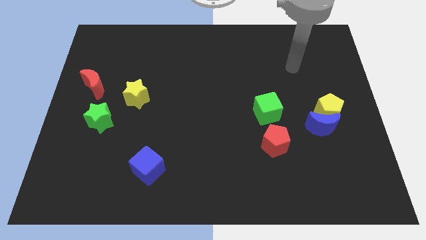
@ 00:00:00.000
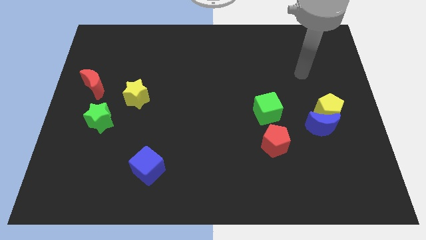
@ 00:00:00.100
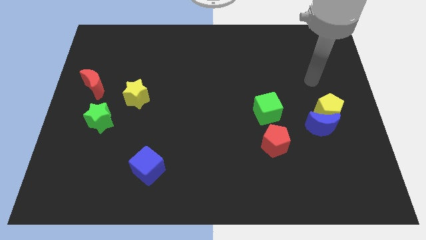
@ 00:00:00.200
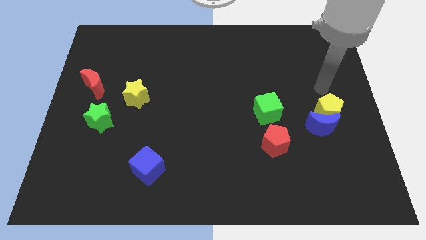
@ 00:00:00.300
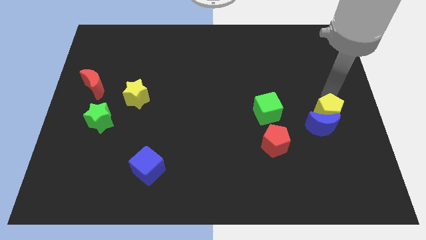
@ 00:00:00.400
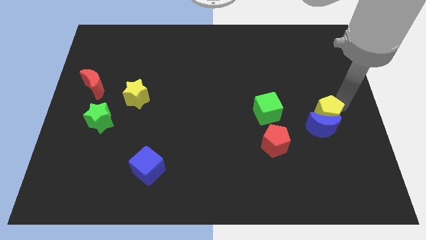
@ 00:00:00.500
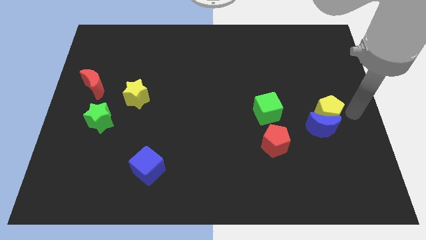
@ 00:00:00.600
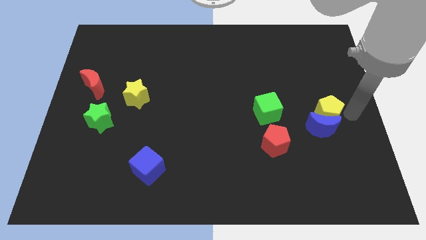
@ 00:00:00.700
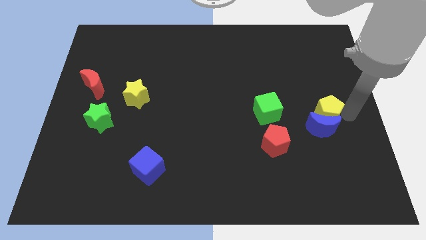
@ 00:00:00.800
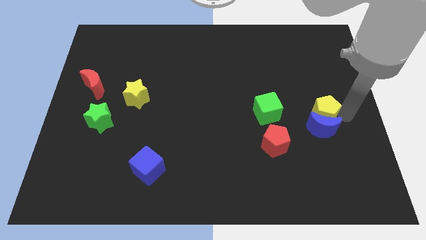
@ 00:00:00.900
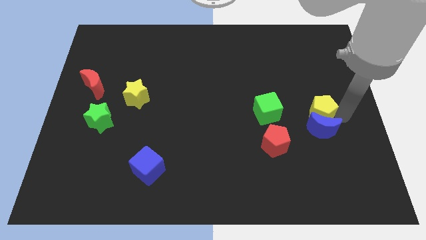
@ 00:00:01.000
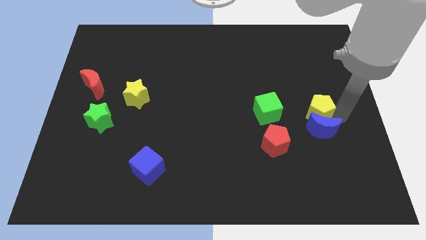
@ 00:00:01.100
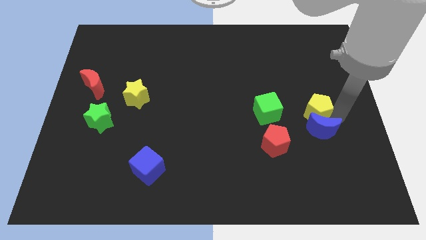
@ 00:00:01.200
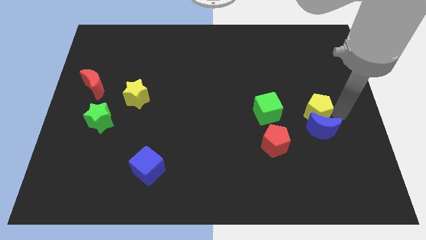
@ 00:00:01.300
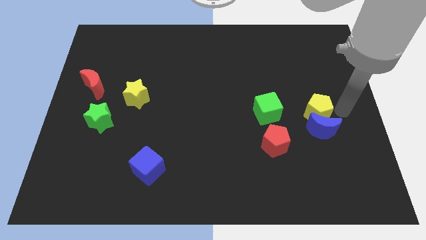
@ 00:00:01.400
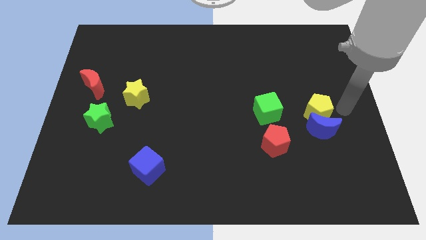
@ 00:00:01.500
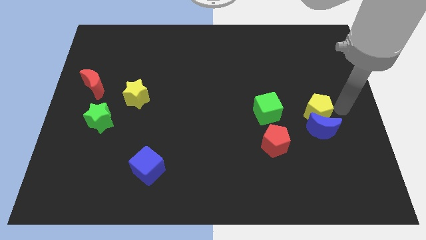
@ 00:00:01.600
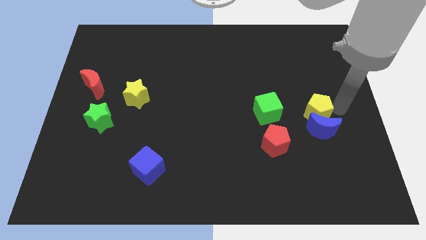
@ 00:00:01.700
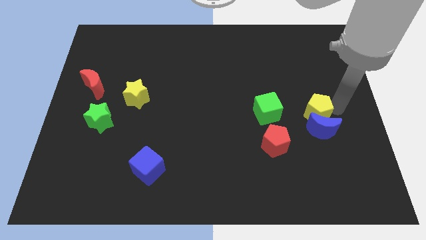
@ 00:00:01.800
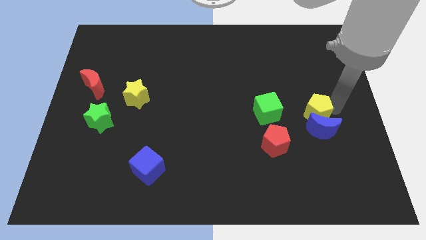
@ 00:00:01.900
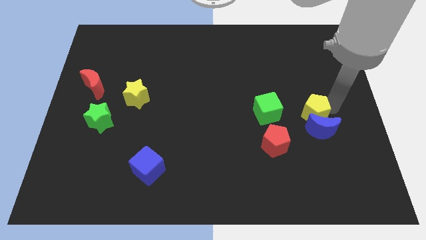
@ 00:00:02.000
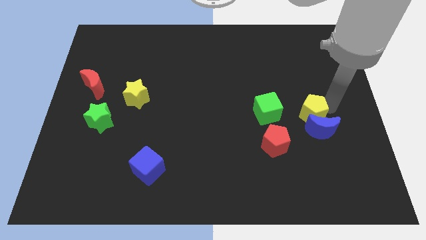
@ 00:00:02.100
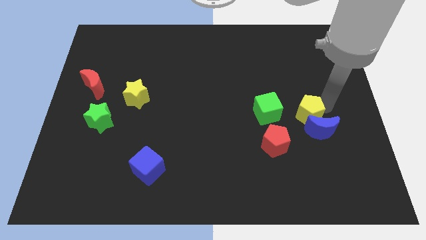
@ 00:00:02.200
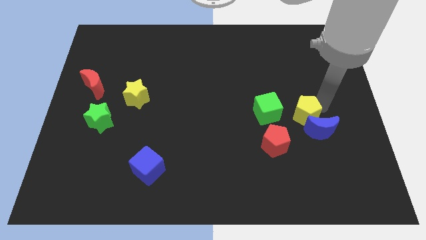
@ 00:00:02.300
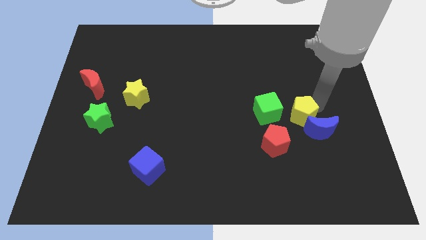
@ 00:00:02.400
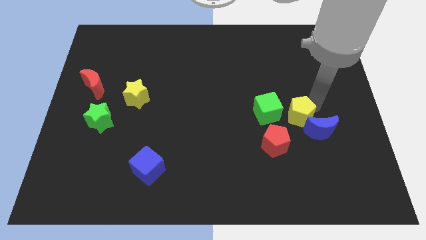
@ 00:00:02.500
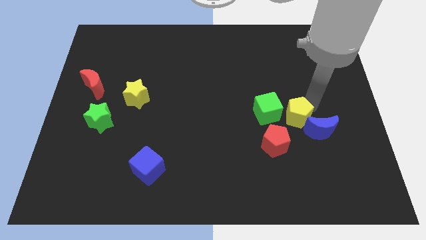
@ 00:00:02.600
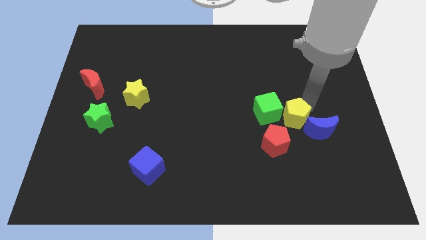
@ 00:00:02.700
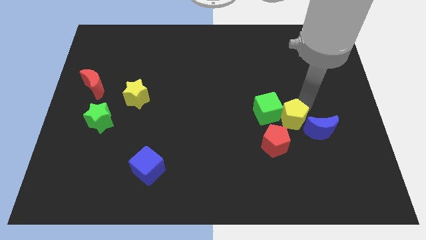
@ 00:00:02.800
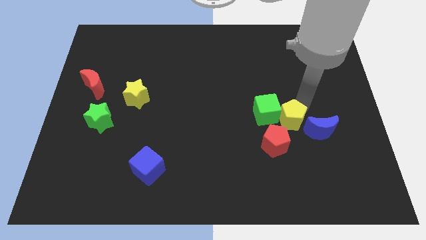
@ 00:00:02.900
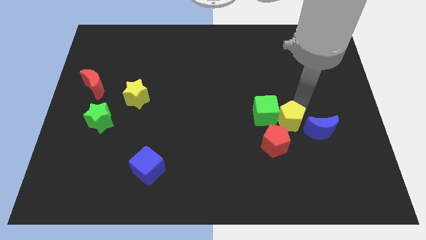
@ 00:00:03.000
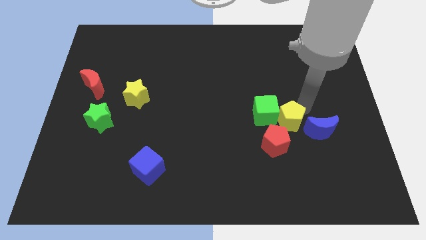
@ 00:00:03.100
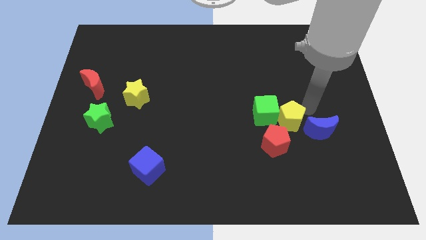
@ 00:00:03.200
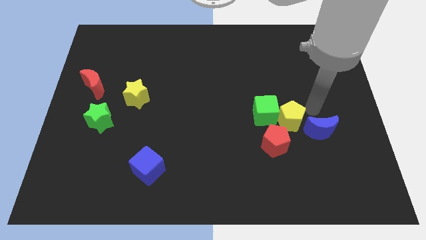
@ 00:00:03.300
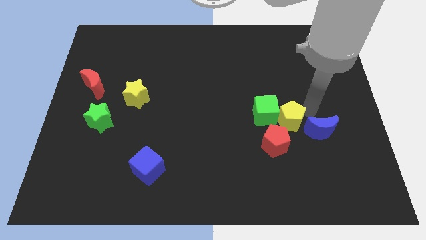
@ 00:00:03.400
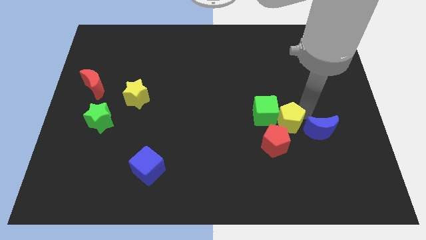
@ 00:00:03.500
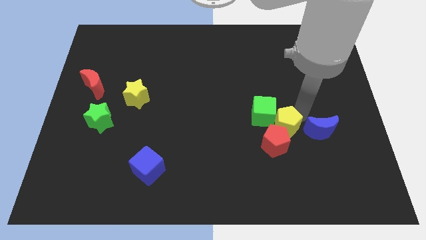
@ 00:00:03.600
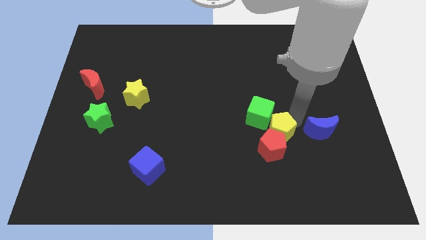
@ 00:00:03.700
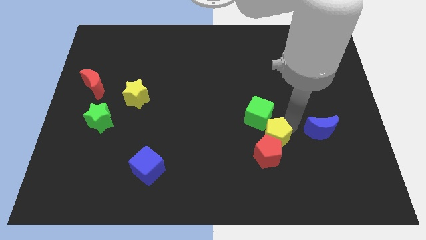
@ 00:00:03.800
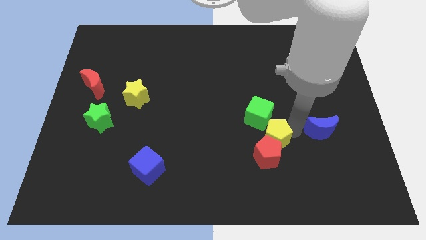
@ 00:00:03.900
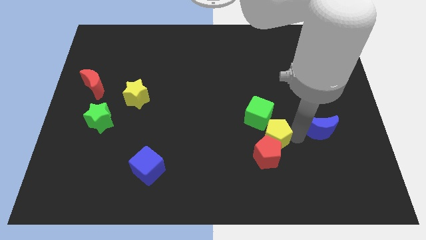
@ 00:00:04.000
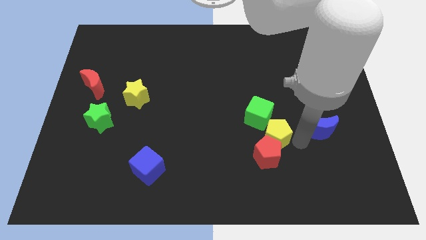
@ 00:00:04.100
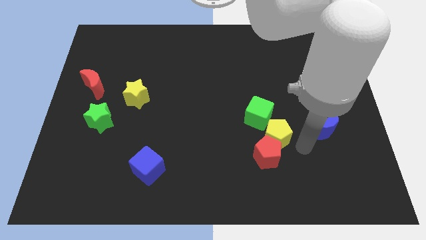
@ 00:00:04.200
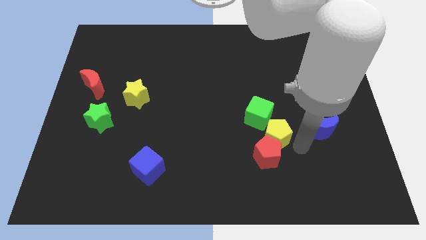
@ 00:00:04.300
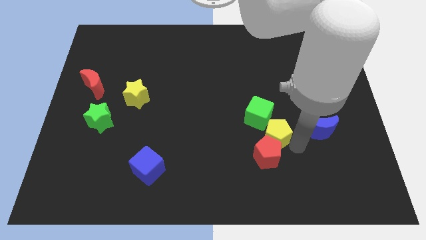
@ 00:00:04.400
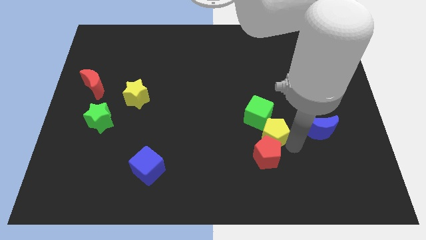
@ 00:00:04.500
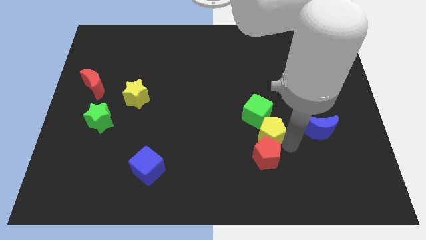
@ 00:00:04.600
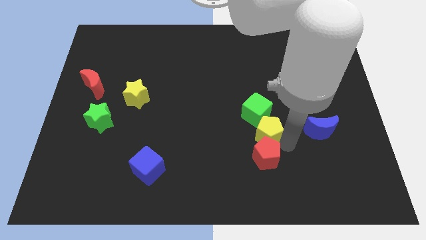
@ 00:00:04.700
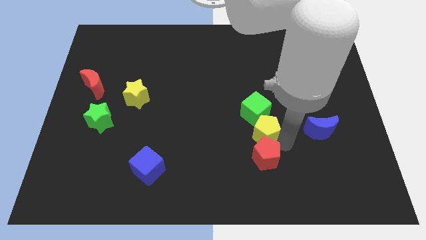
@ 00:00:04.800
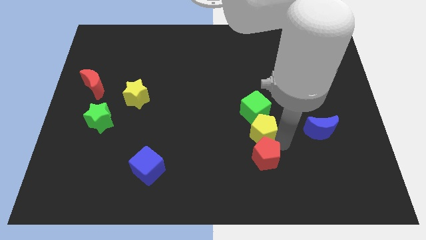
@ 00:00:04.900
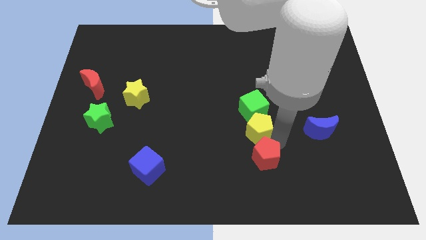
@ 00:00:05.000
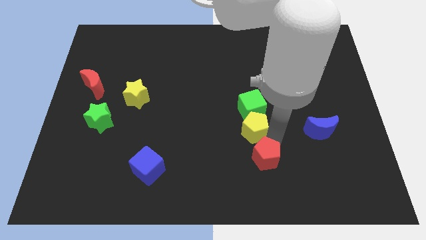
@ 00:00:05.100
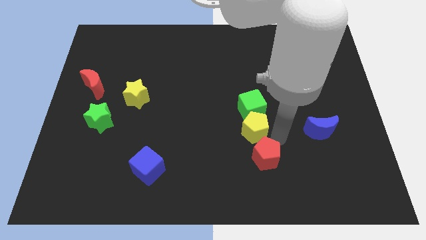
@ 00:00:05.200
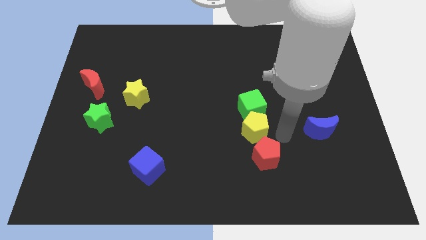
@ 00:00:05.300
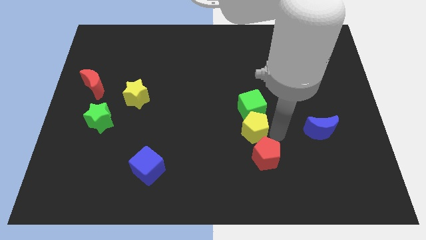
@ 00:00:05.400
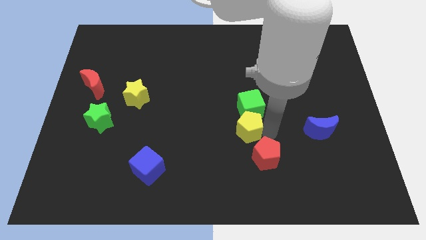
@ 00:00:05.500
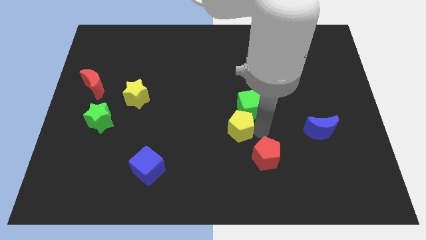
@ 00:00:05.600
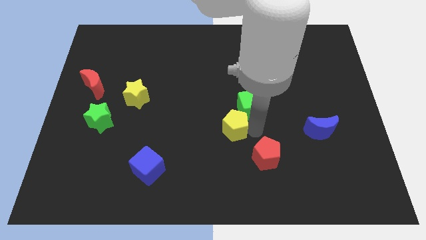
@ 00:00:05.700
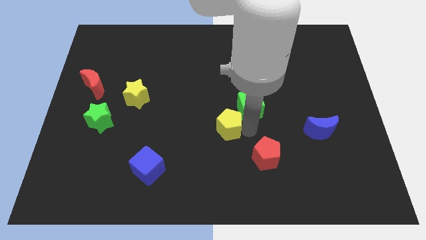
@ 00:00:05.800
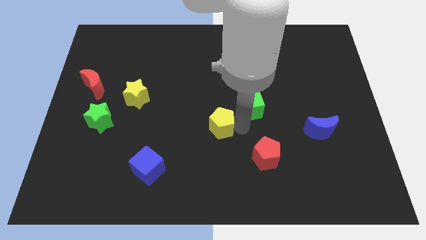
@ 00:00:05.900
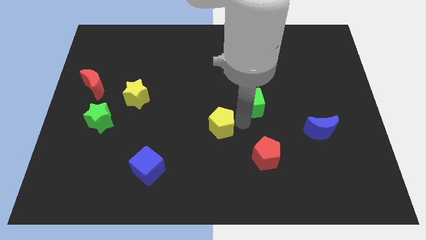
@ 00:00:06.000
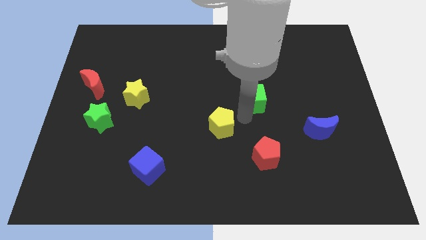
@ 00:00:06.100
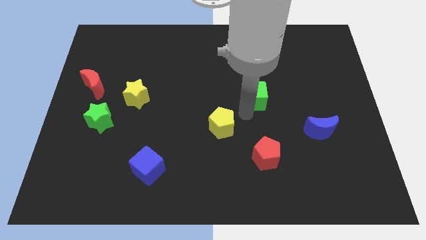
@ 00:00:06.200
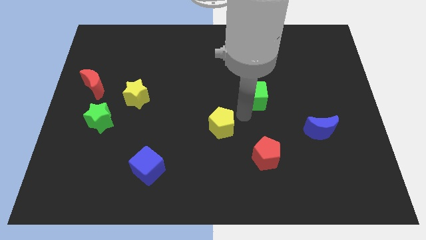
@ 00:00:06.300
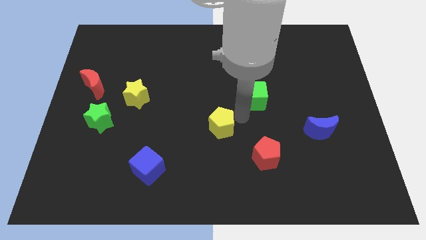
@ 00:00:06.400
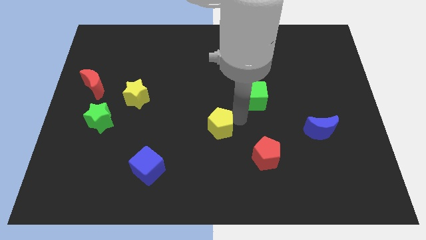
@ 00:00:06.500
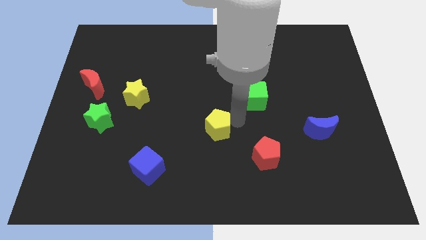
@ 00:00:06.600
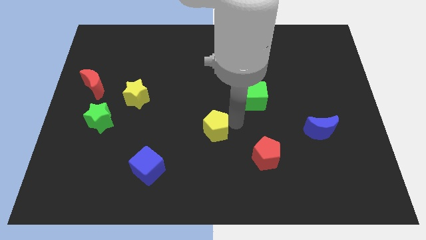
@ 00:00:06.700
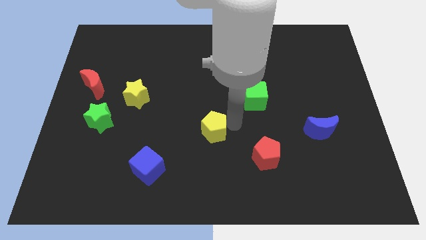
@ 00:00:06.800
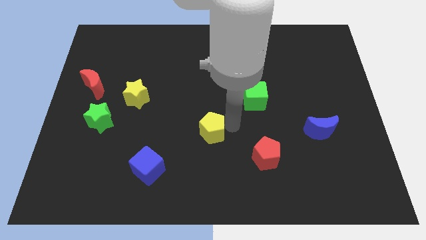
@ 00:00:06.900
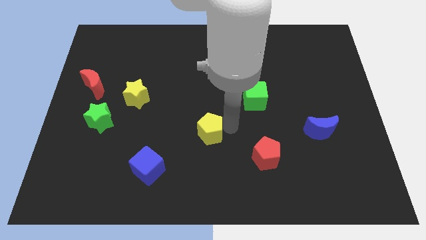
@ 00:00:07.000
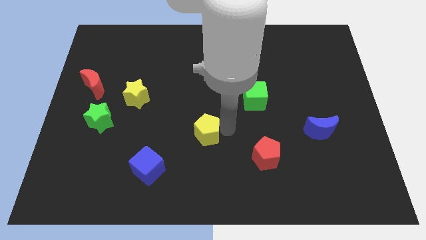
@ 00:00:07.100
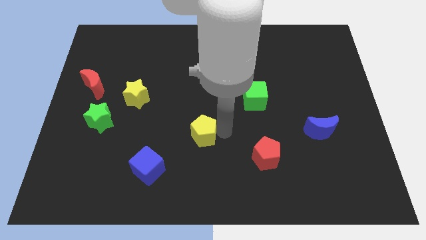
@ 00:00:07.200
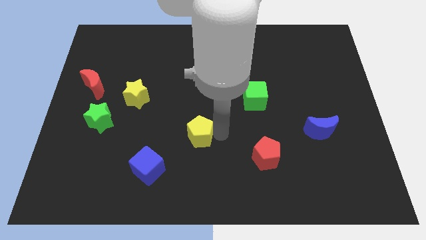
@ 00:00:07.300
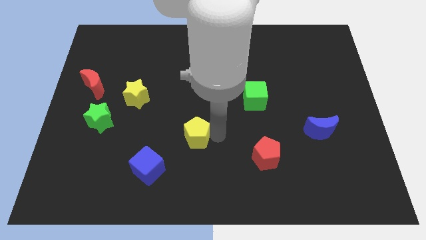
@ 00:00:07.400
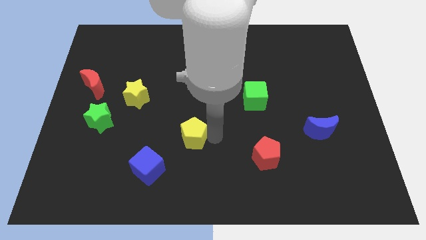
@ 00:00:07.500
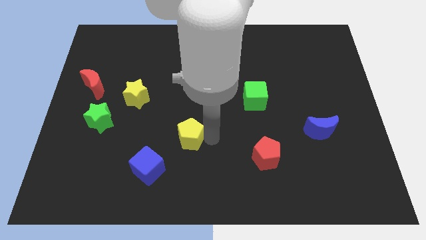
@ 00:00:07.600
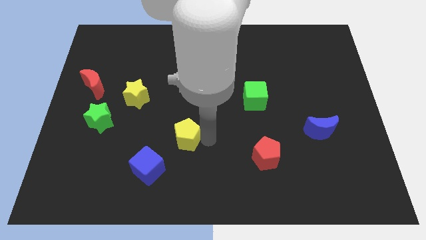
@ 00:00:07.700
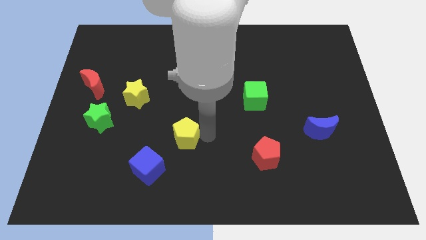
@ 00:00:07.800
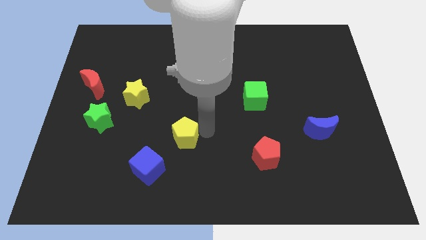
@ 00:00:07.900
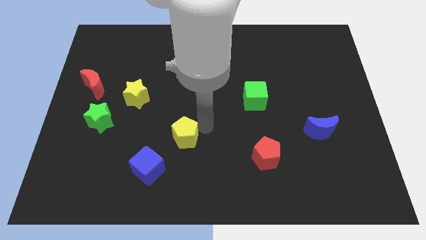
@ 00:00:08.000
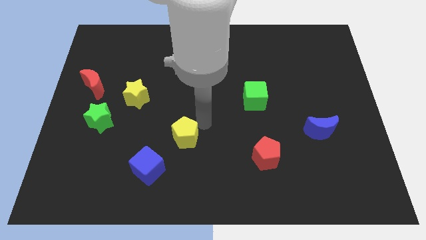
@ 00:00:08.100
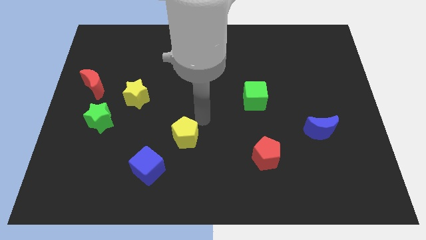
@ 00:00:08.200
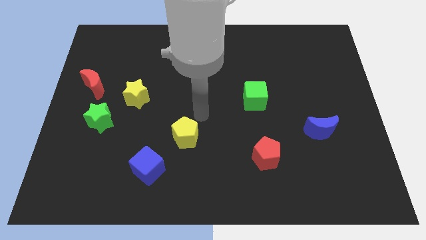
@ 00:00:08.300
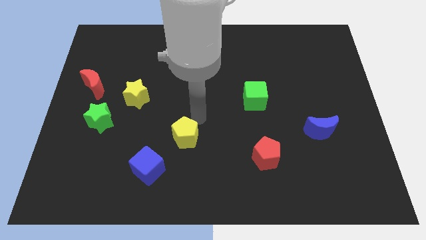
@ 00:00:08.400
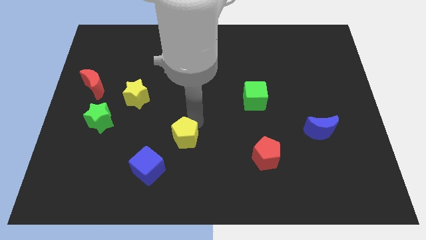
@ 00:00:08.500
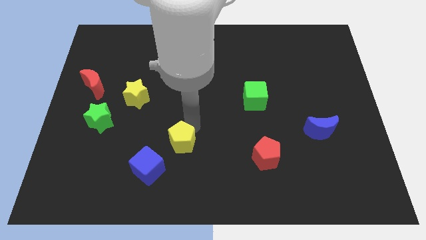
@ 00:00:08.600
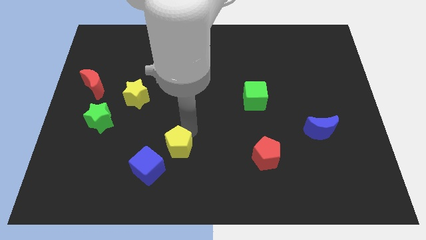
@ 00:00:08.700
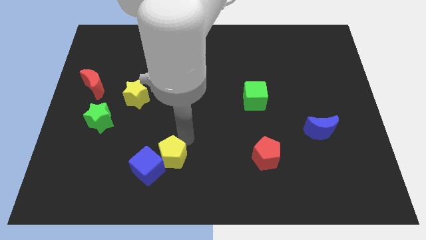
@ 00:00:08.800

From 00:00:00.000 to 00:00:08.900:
move the yellow pentagon next to the blue cube
